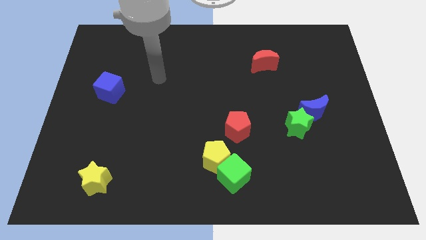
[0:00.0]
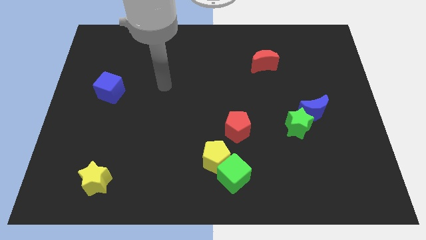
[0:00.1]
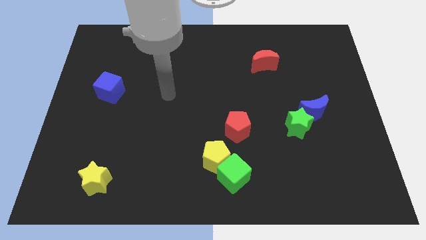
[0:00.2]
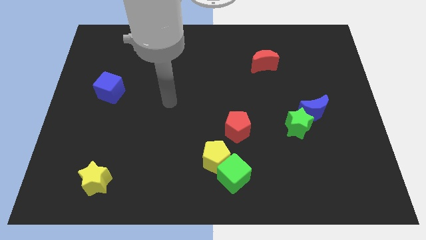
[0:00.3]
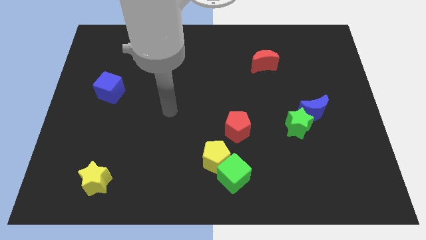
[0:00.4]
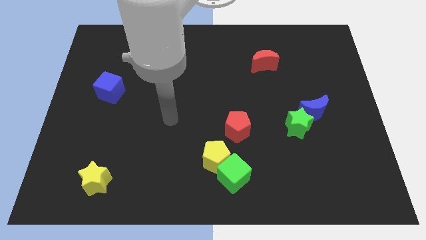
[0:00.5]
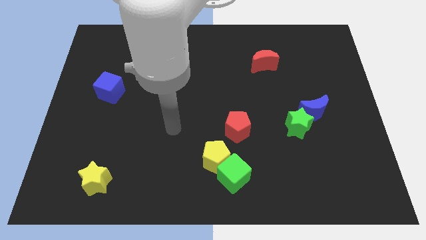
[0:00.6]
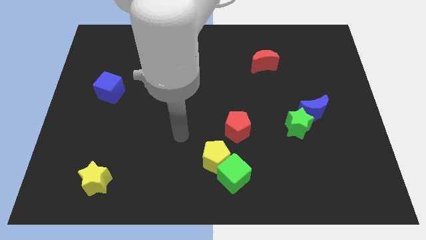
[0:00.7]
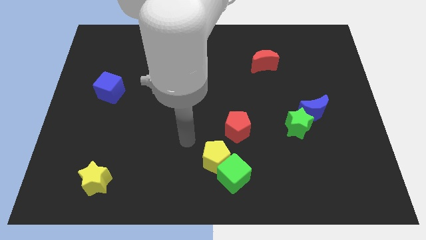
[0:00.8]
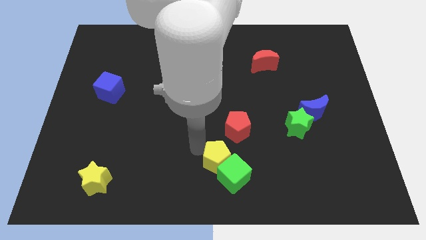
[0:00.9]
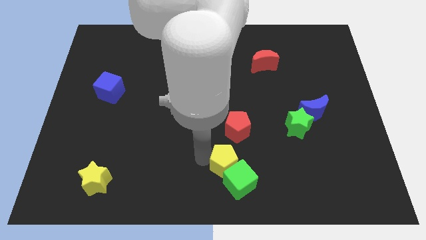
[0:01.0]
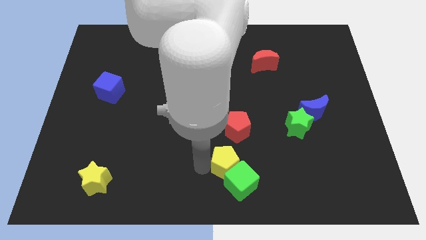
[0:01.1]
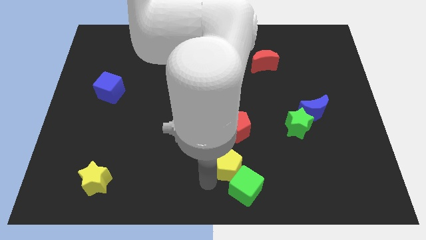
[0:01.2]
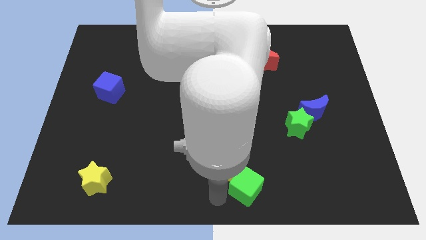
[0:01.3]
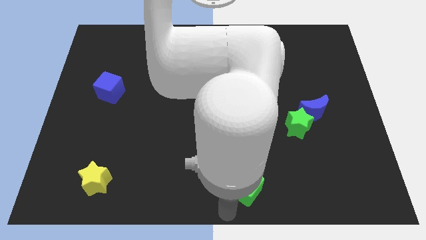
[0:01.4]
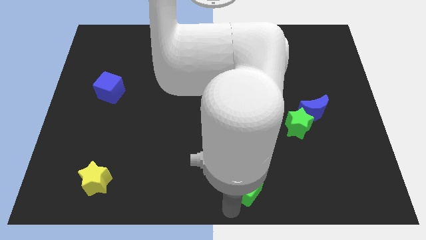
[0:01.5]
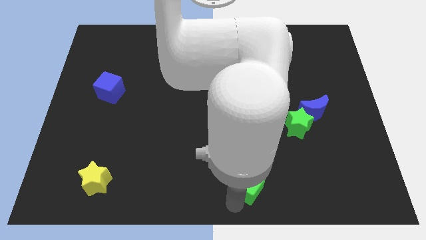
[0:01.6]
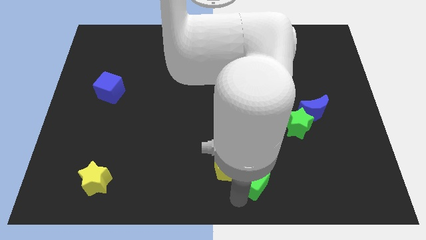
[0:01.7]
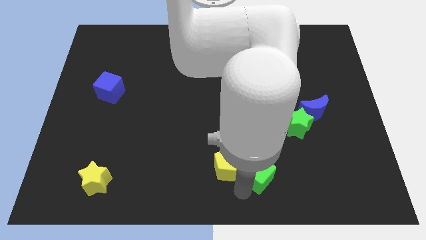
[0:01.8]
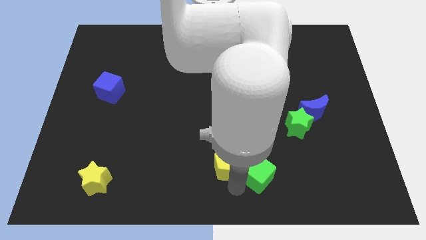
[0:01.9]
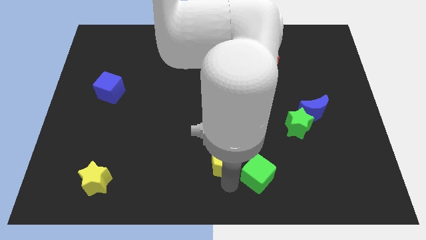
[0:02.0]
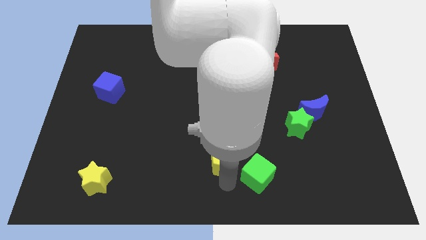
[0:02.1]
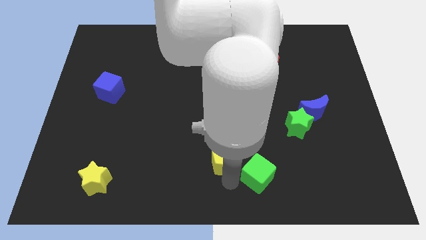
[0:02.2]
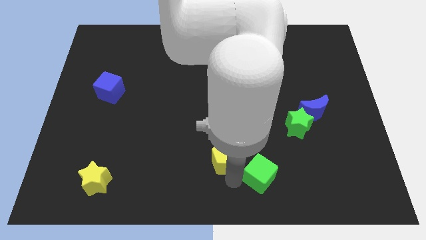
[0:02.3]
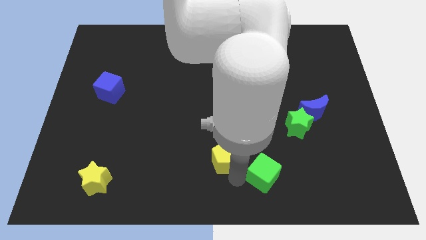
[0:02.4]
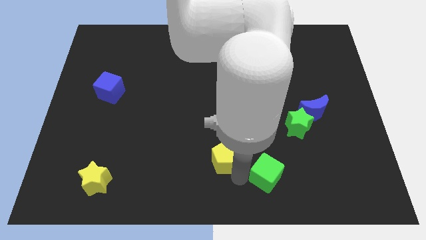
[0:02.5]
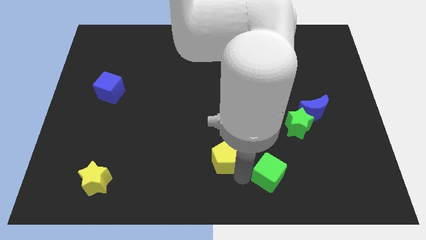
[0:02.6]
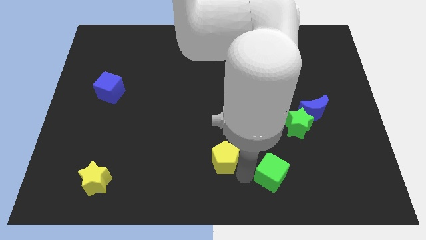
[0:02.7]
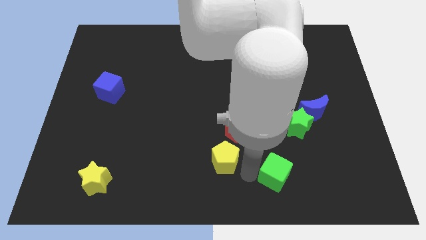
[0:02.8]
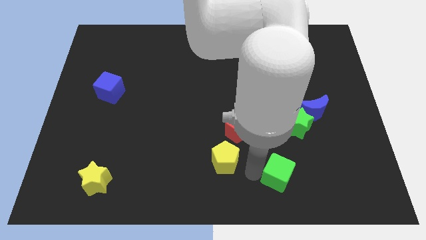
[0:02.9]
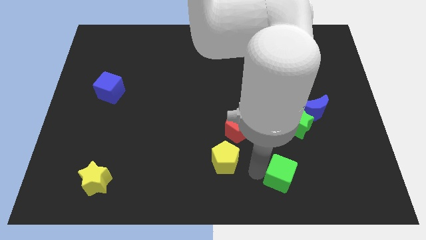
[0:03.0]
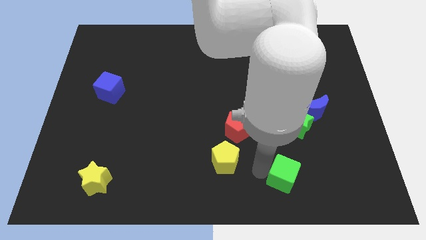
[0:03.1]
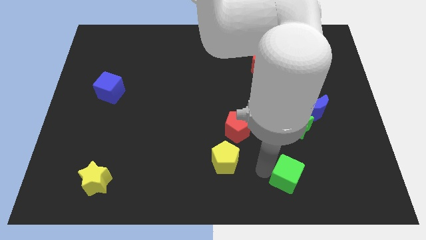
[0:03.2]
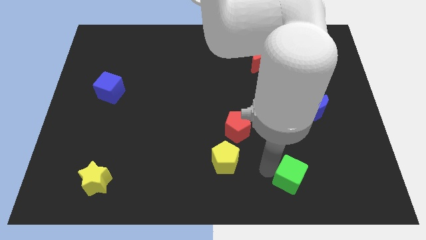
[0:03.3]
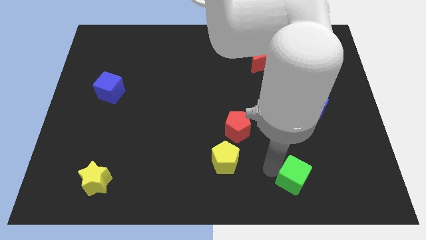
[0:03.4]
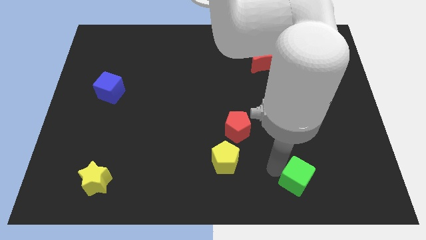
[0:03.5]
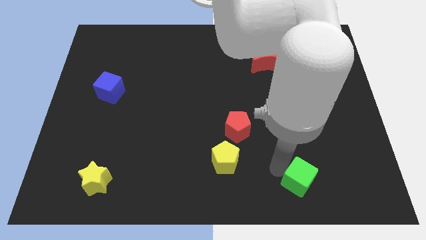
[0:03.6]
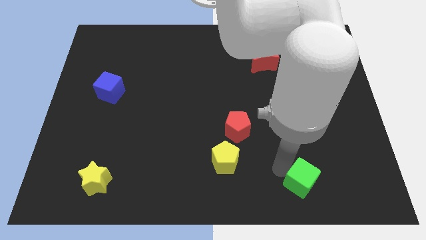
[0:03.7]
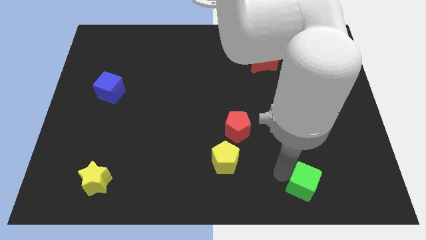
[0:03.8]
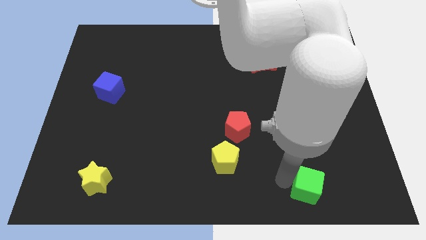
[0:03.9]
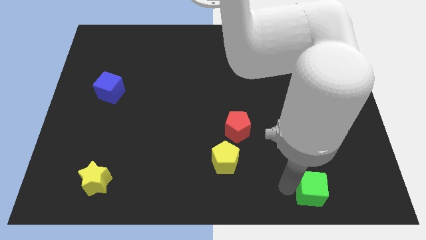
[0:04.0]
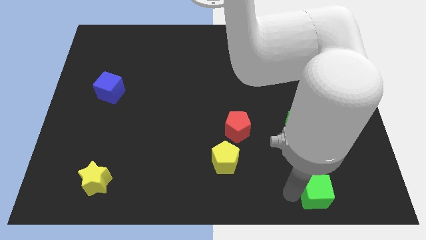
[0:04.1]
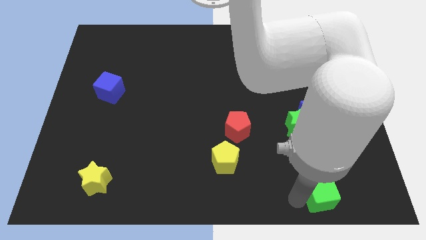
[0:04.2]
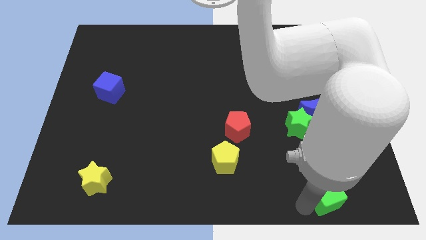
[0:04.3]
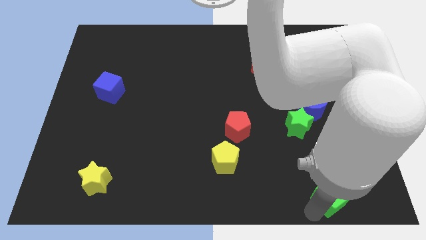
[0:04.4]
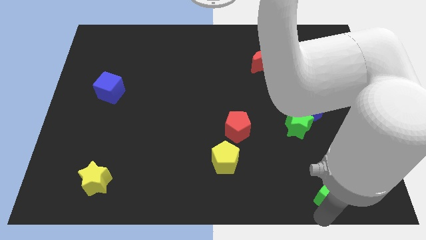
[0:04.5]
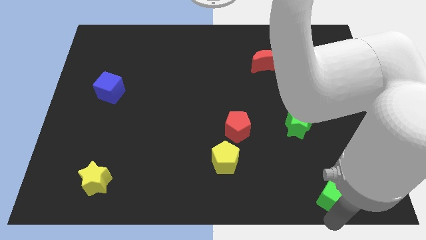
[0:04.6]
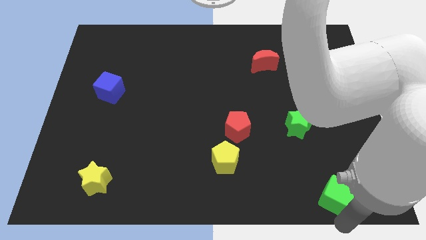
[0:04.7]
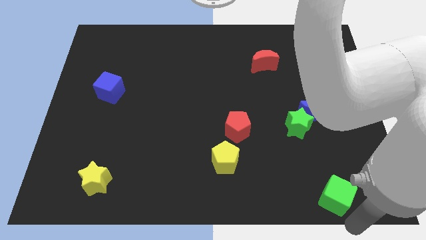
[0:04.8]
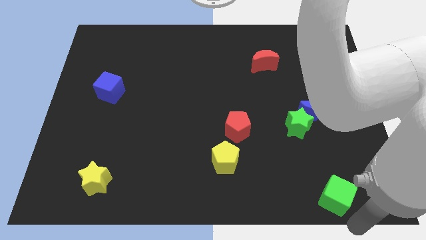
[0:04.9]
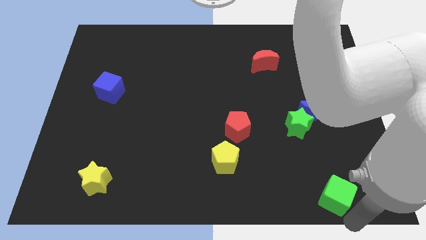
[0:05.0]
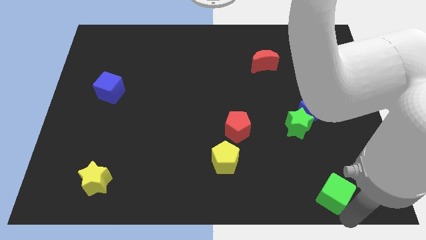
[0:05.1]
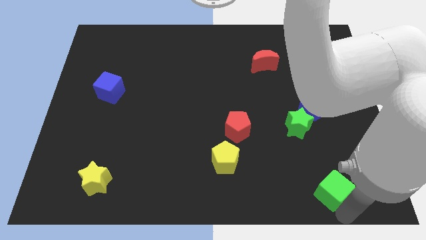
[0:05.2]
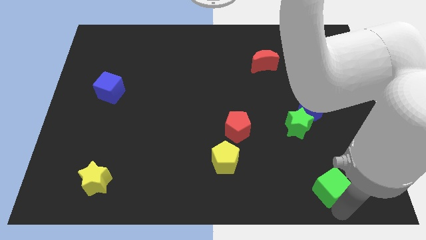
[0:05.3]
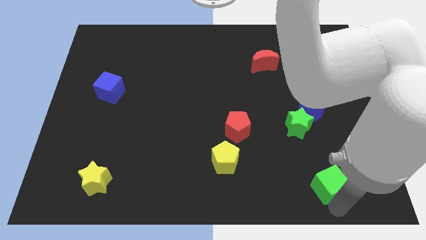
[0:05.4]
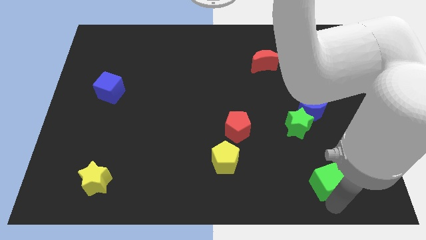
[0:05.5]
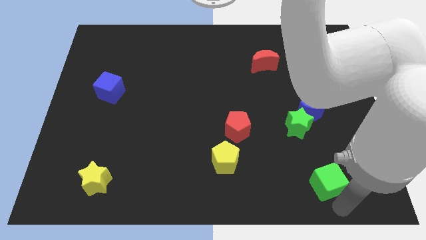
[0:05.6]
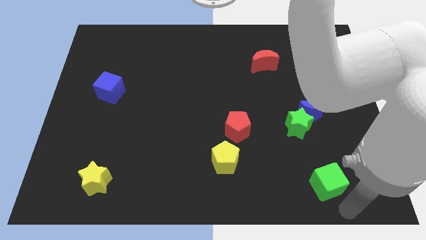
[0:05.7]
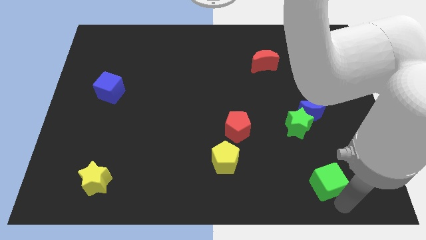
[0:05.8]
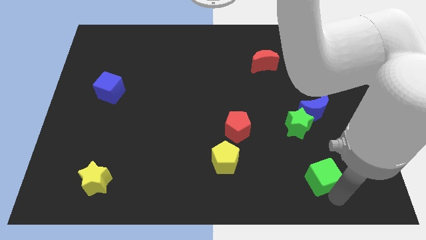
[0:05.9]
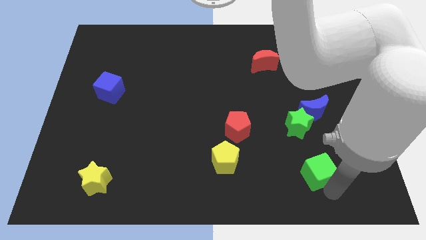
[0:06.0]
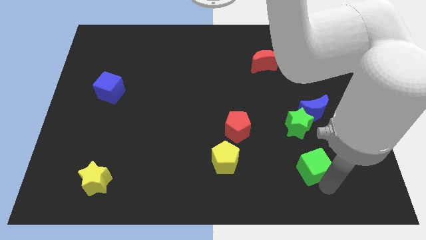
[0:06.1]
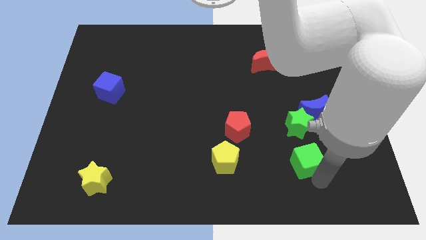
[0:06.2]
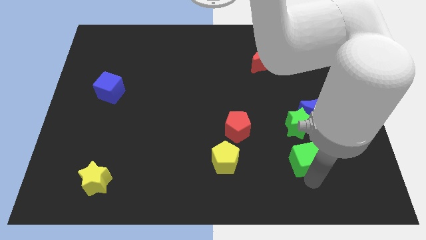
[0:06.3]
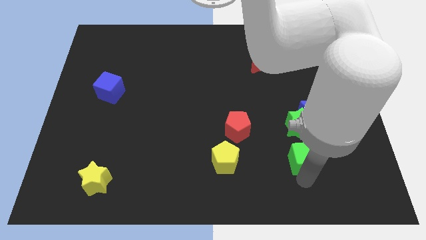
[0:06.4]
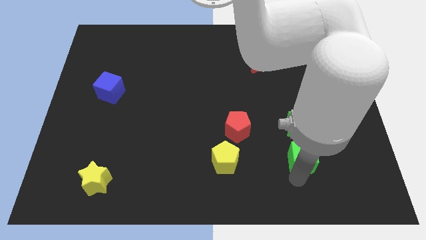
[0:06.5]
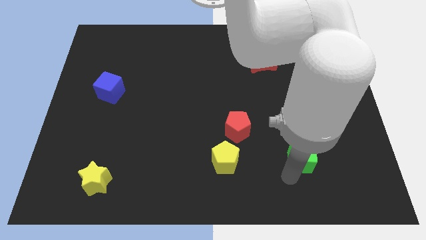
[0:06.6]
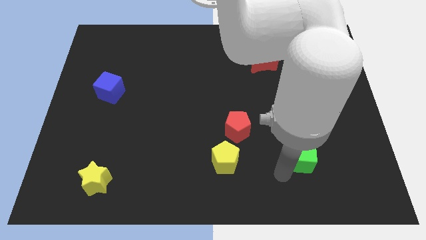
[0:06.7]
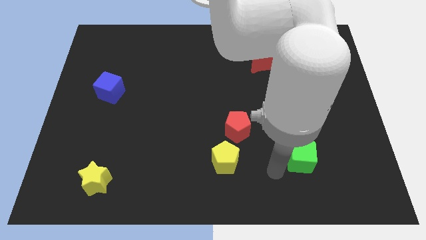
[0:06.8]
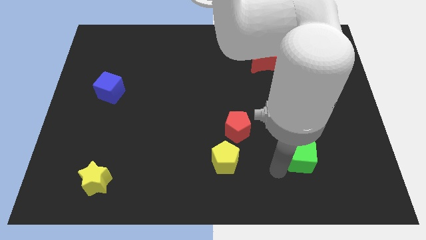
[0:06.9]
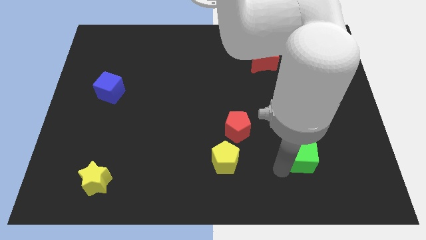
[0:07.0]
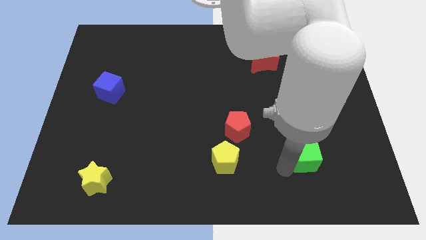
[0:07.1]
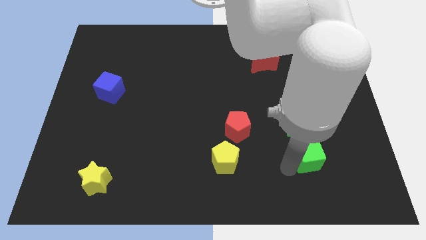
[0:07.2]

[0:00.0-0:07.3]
move the green cube to the bottom right of the green star
